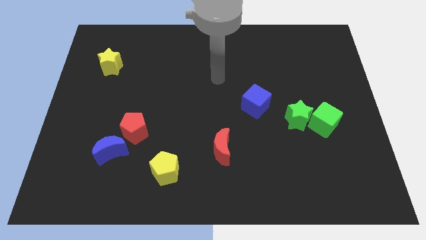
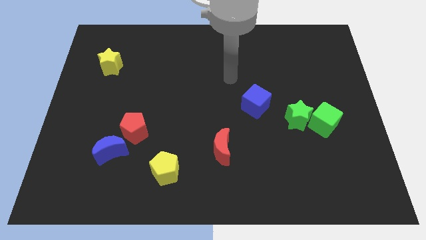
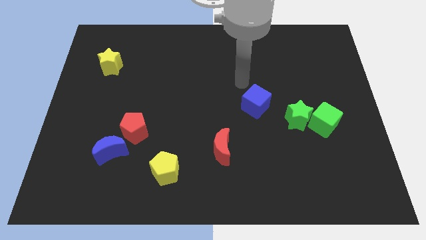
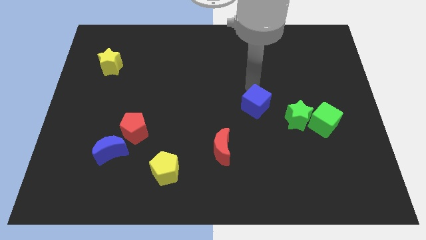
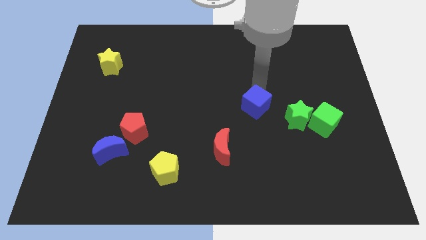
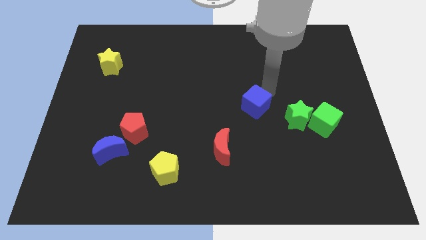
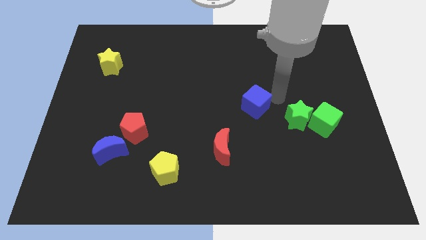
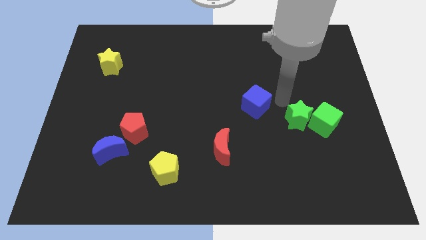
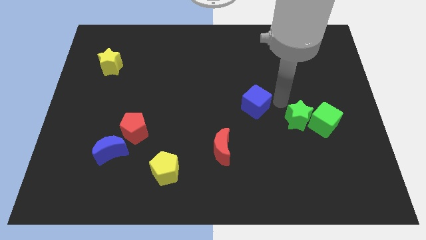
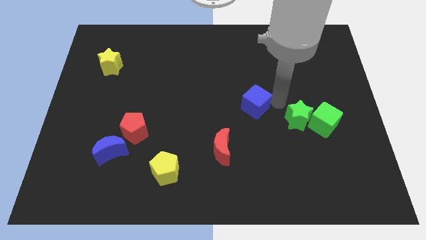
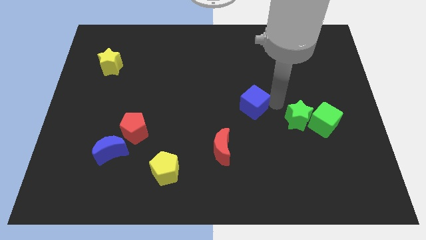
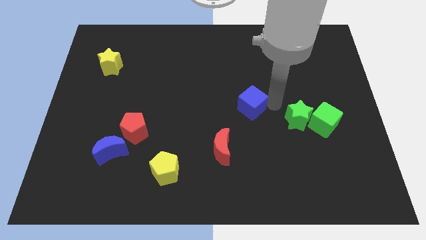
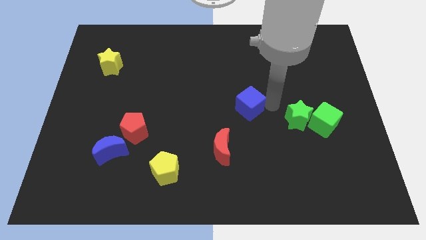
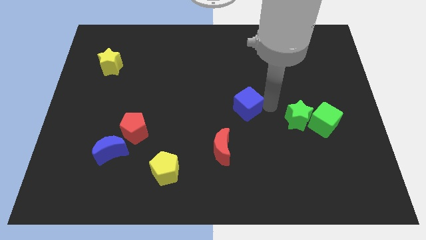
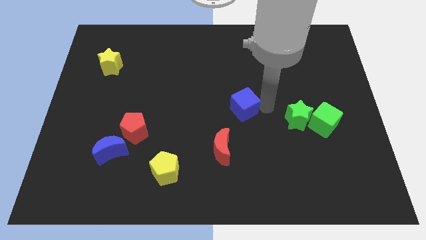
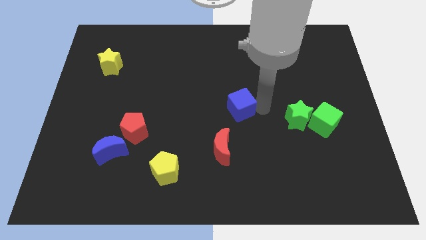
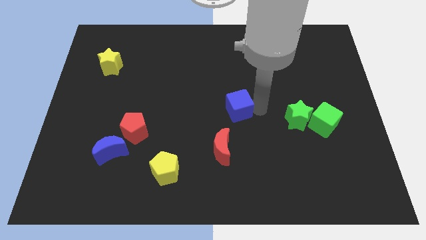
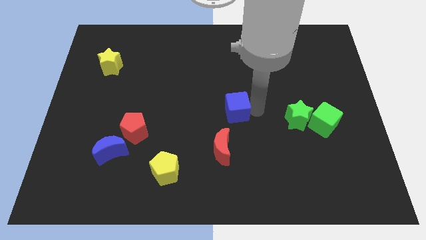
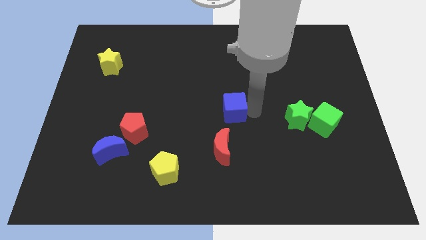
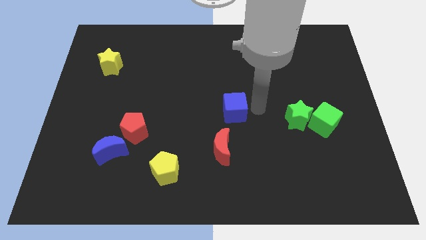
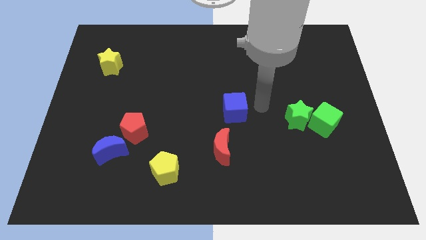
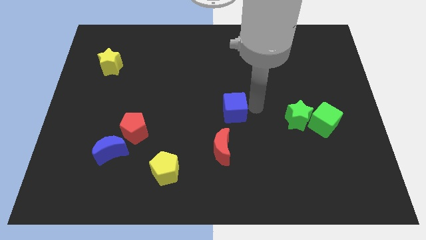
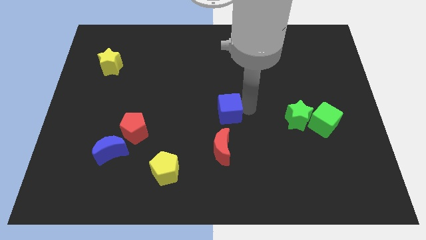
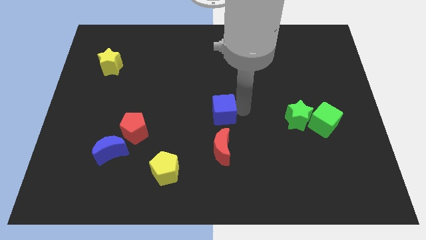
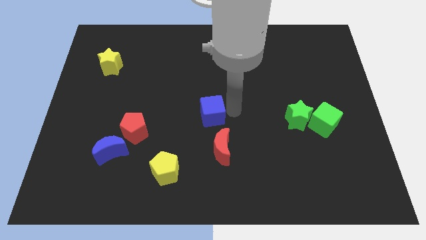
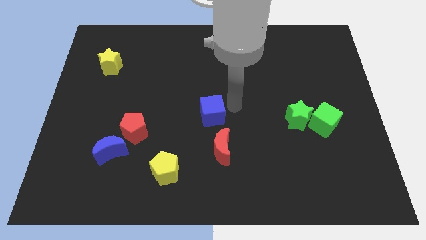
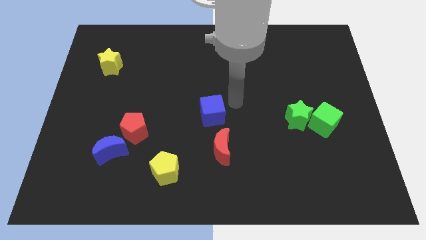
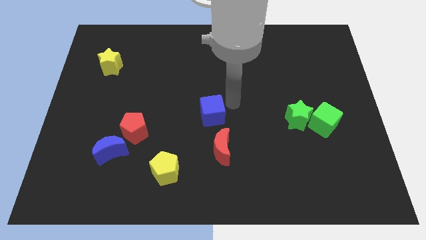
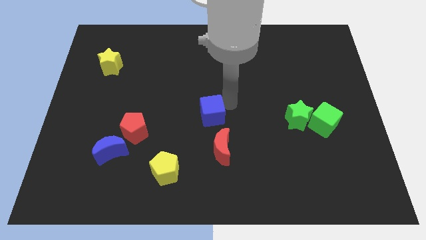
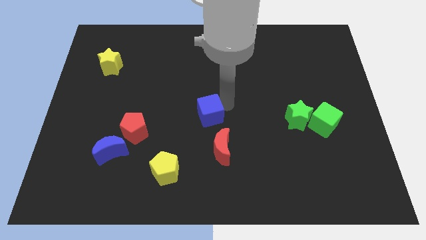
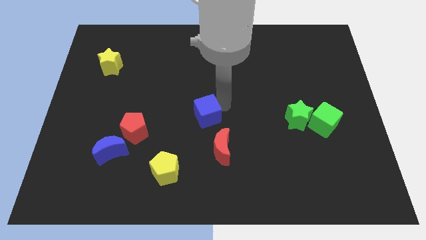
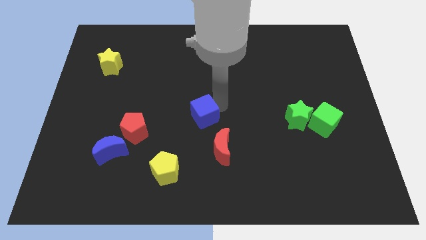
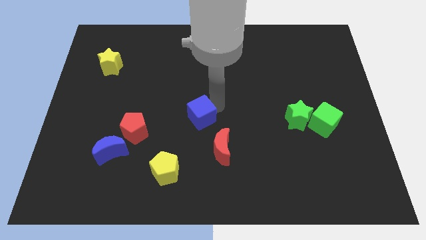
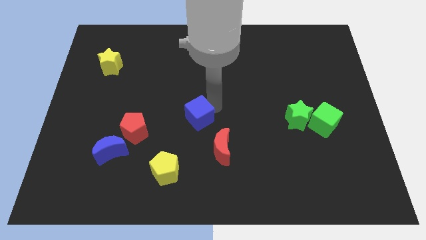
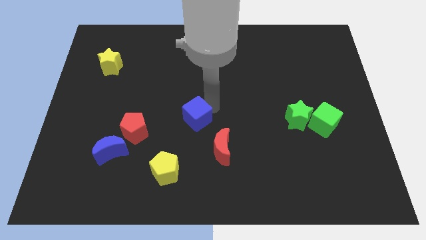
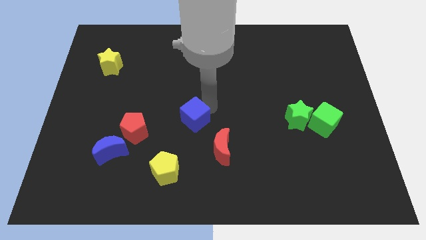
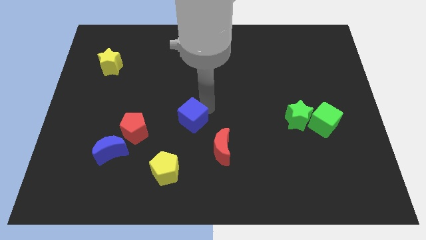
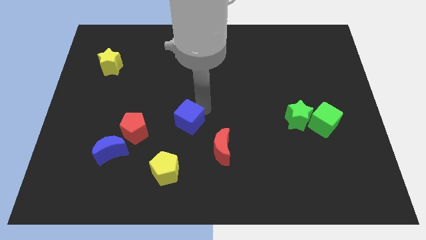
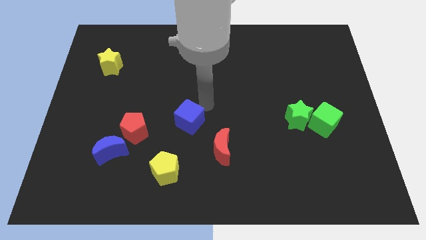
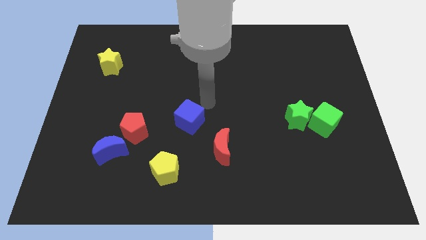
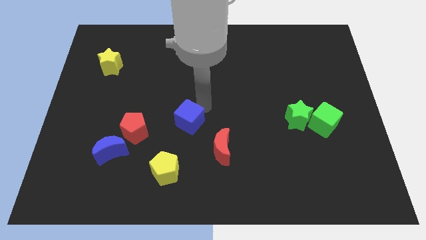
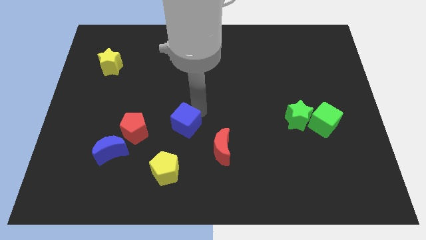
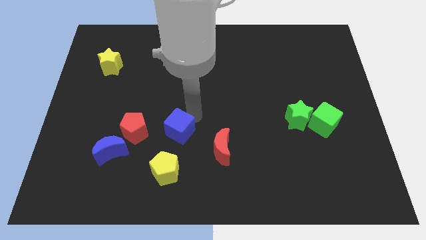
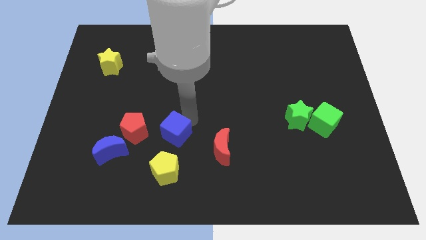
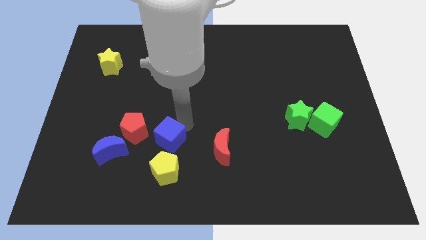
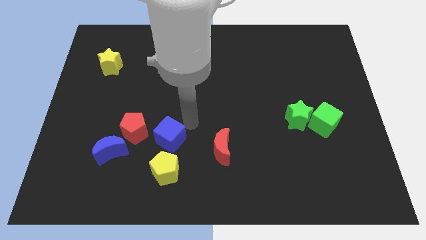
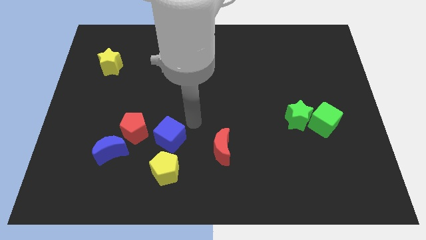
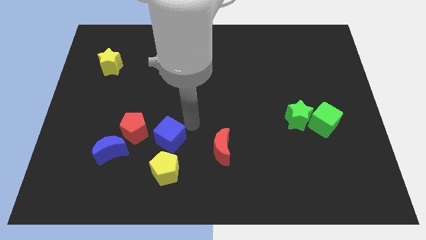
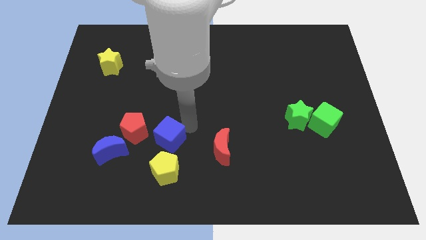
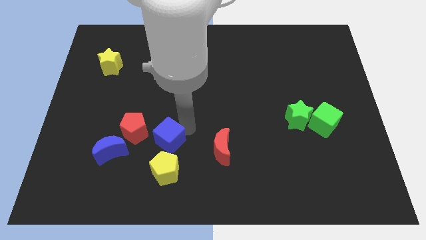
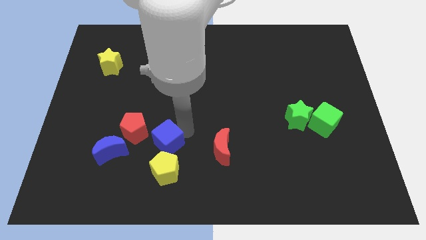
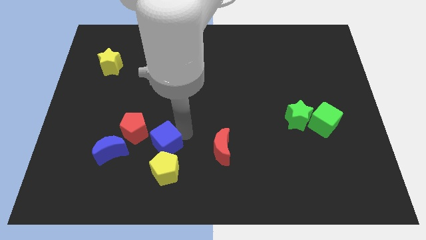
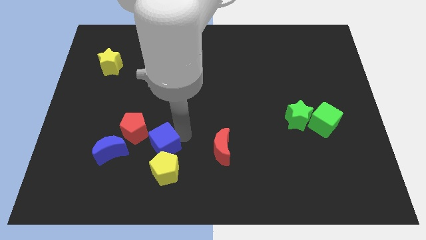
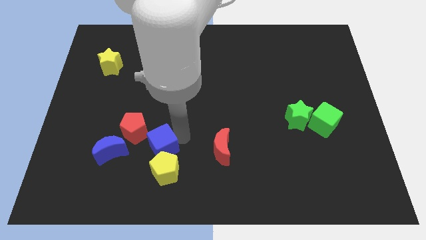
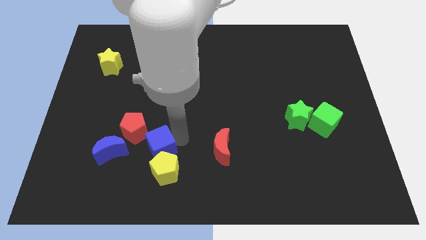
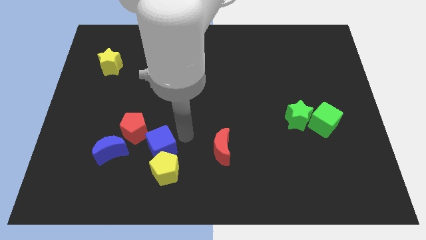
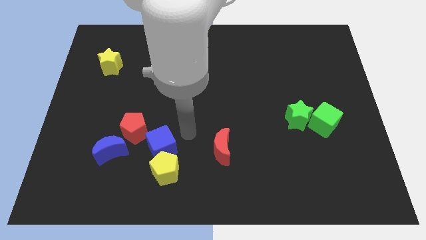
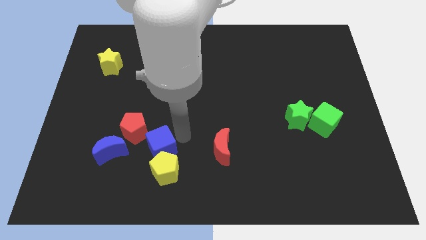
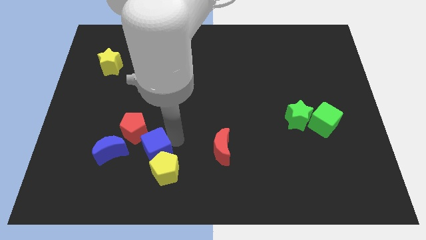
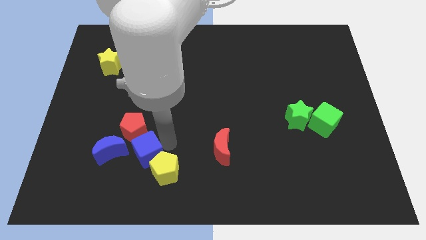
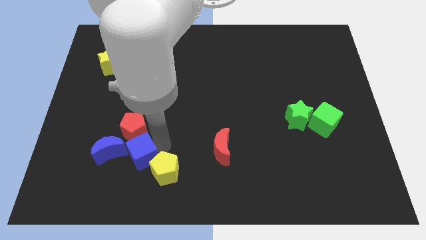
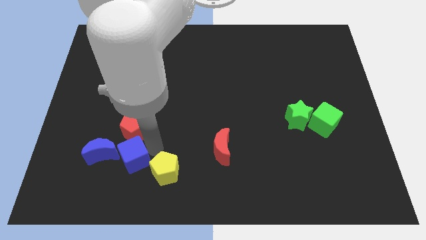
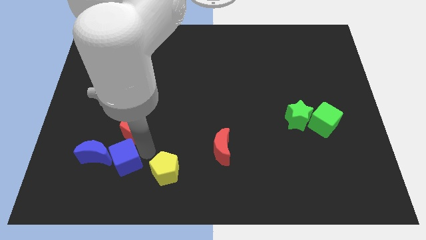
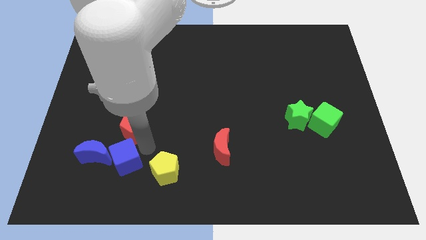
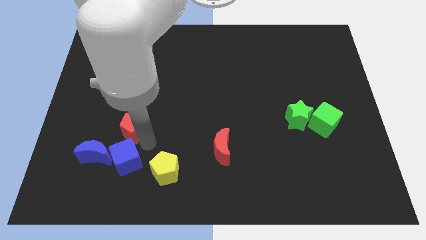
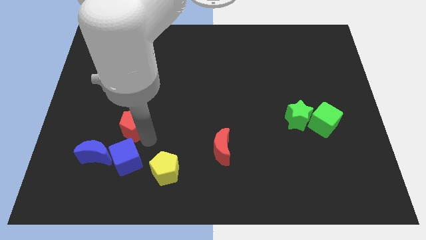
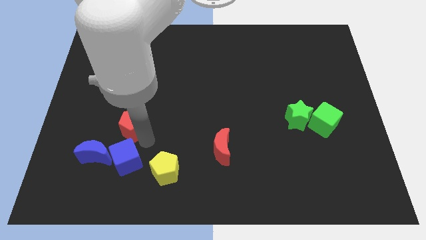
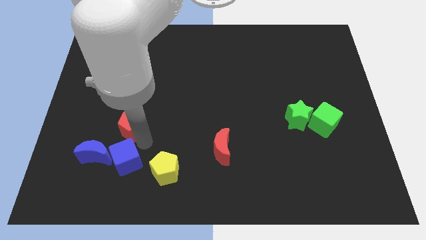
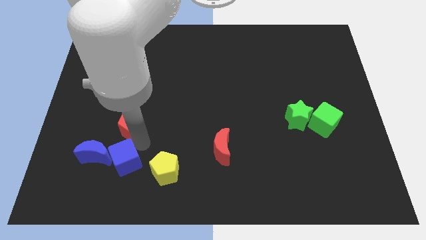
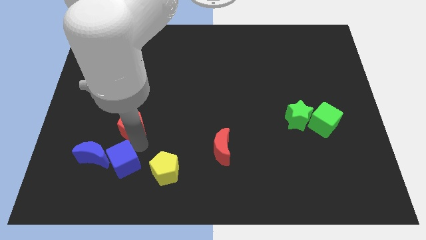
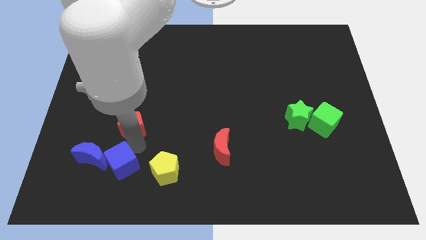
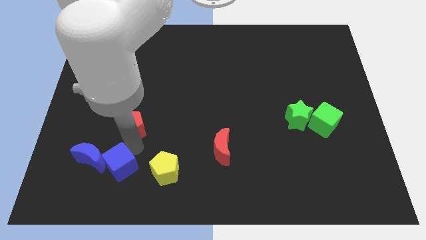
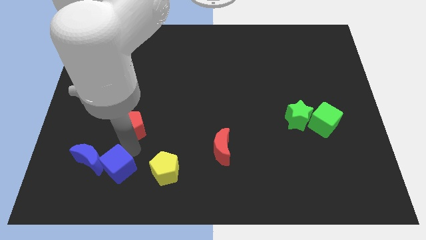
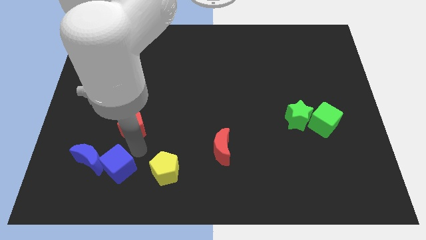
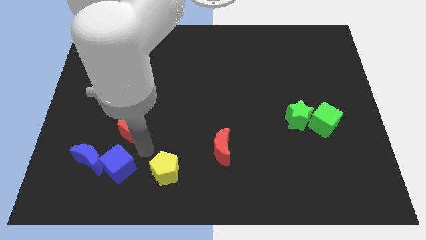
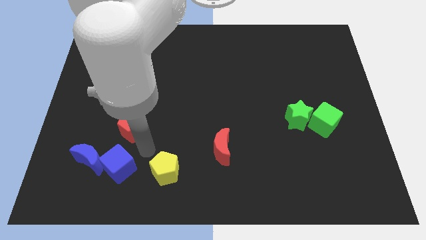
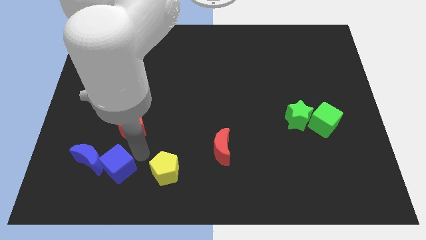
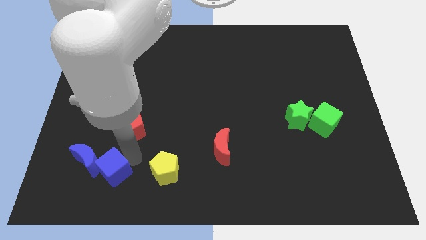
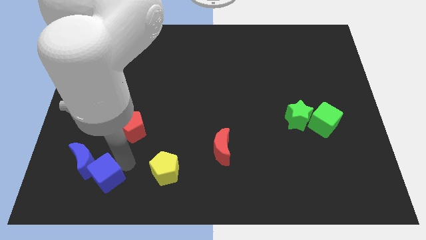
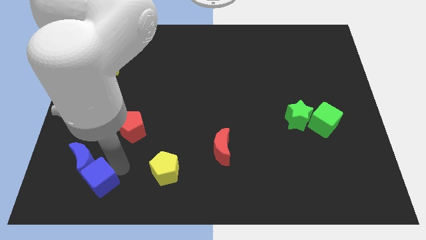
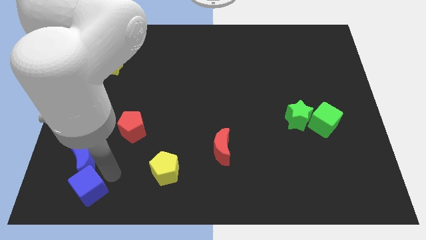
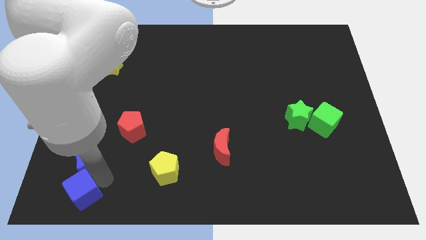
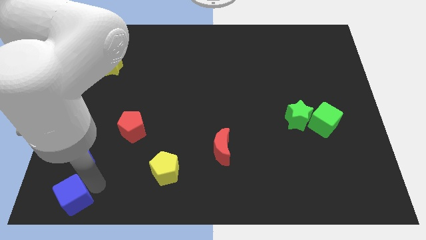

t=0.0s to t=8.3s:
put the blue cube to the bottom left of the board
